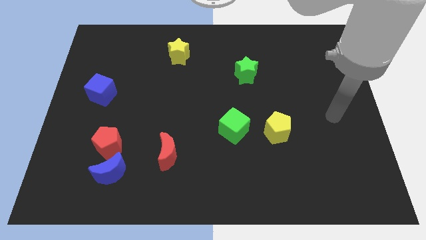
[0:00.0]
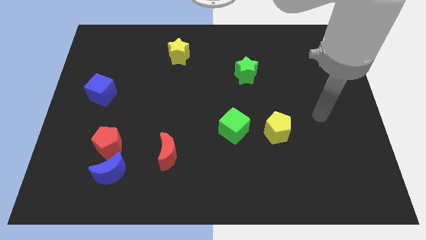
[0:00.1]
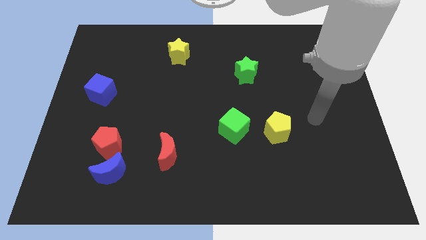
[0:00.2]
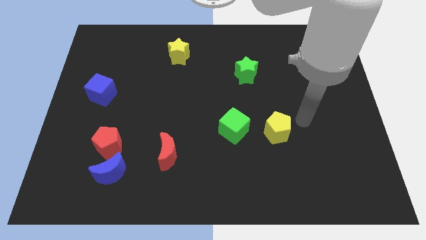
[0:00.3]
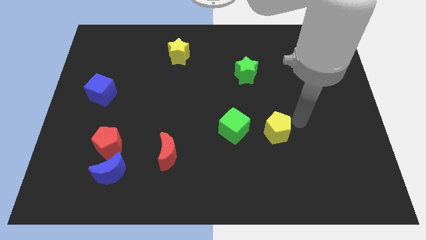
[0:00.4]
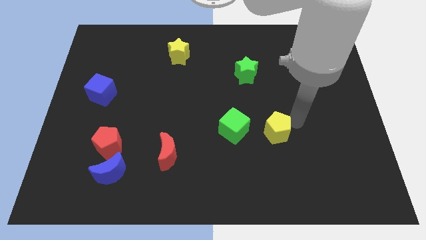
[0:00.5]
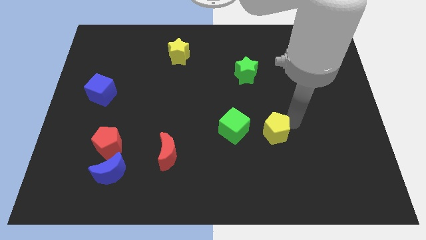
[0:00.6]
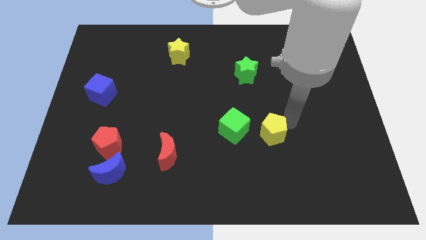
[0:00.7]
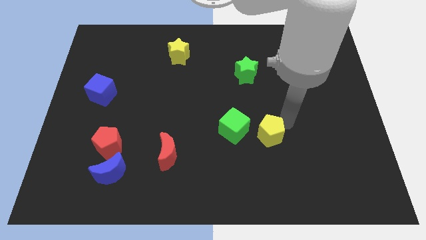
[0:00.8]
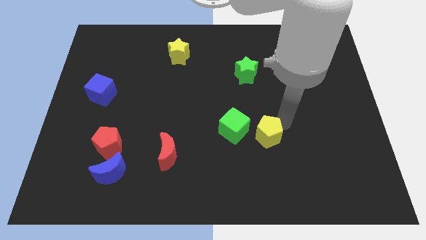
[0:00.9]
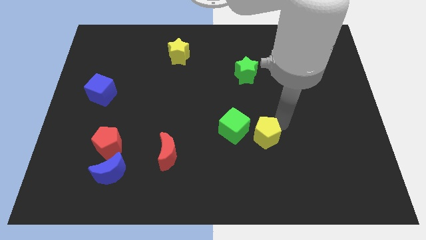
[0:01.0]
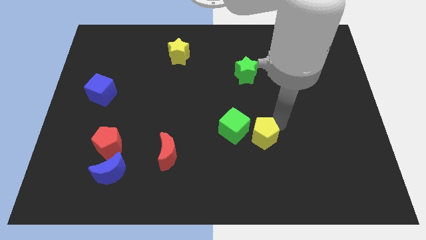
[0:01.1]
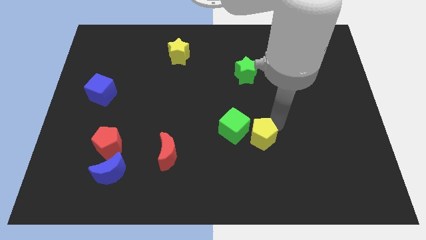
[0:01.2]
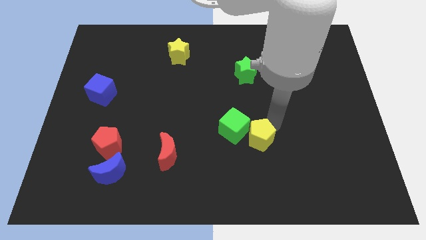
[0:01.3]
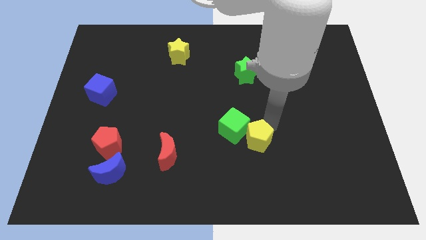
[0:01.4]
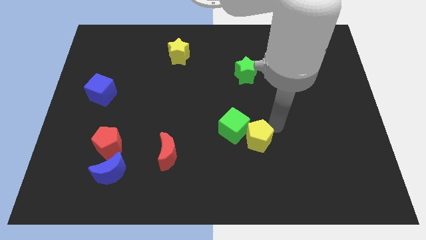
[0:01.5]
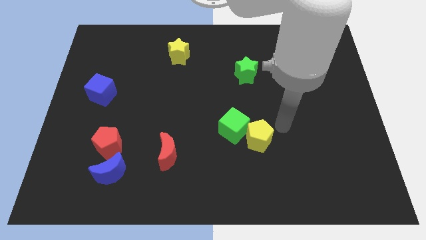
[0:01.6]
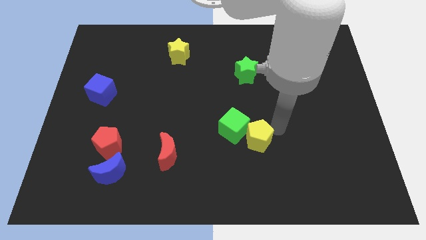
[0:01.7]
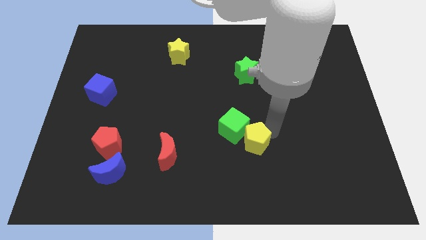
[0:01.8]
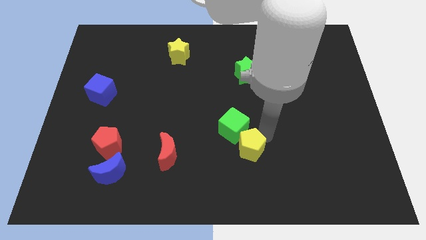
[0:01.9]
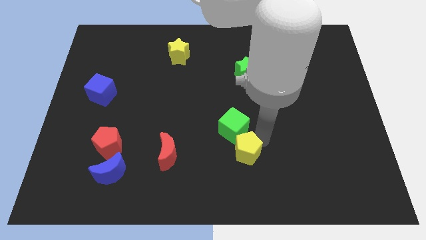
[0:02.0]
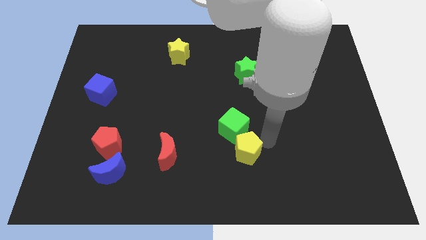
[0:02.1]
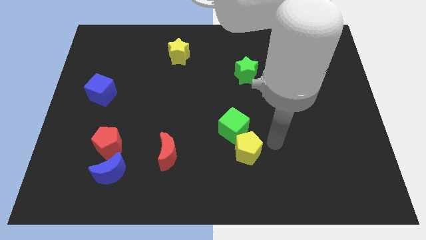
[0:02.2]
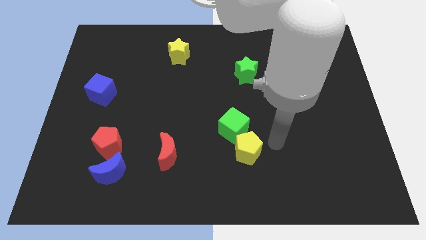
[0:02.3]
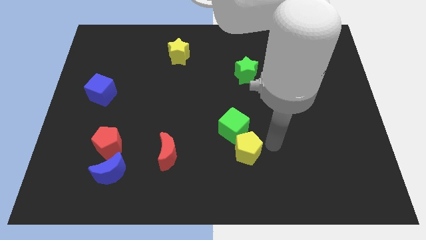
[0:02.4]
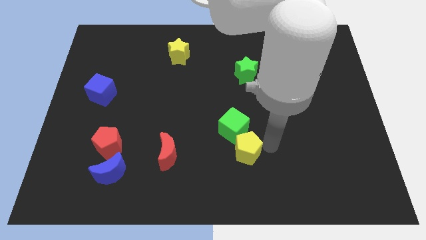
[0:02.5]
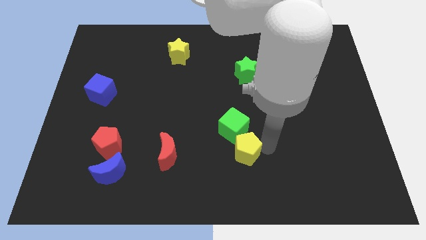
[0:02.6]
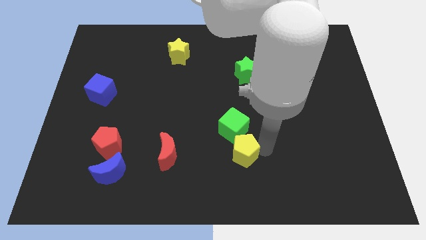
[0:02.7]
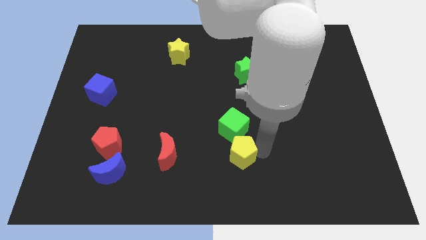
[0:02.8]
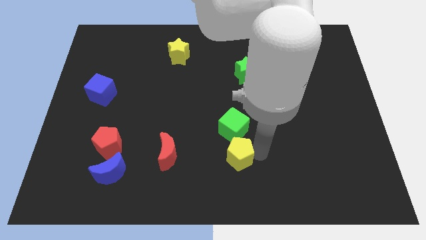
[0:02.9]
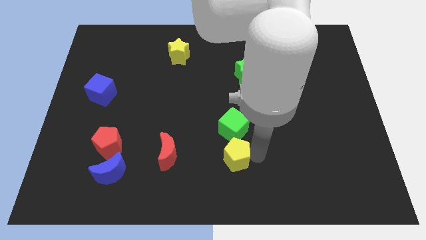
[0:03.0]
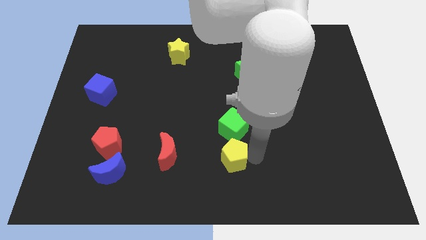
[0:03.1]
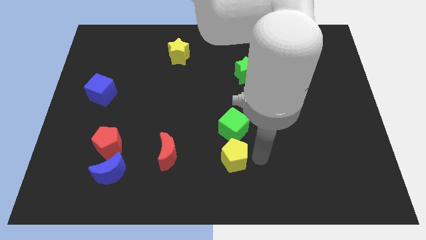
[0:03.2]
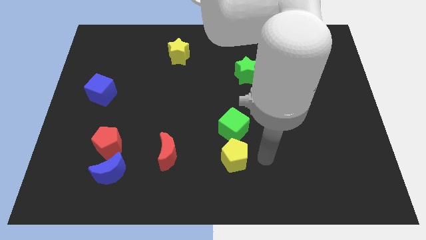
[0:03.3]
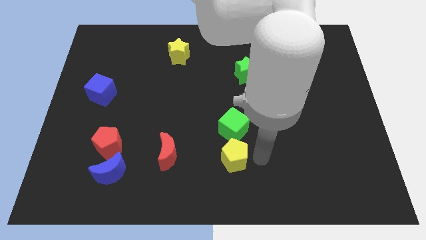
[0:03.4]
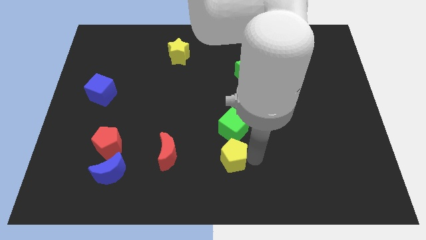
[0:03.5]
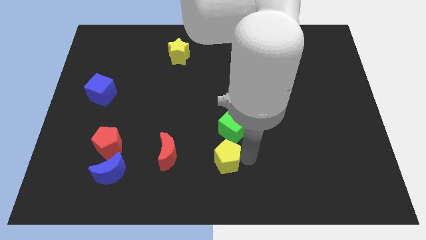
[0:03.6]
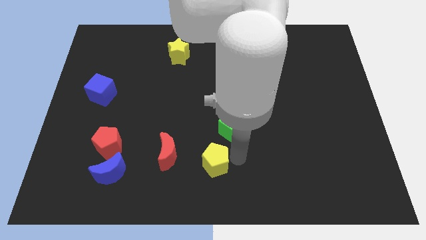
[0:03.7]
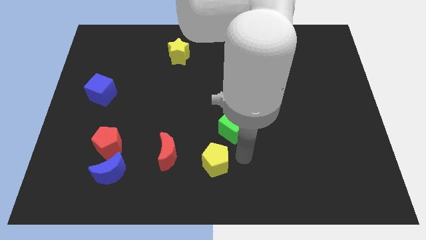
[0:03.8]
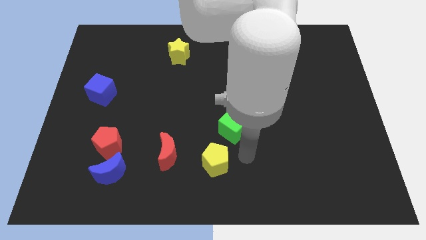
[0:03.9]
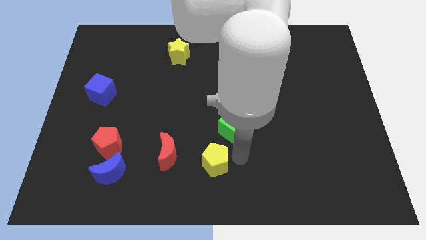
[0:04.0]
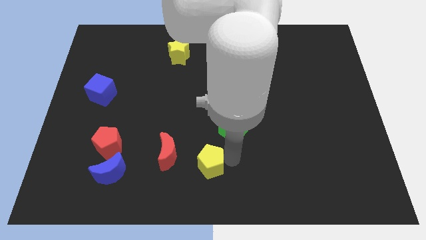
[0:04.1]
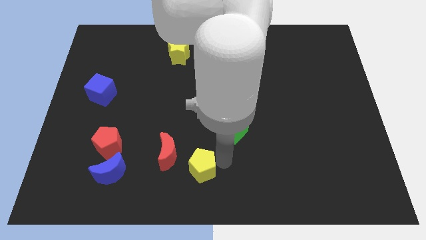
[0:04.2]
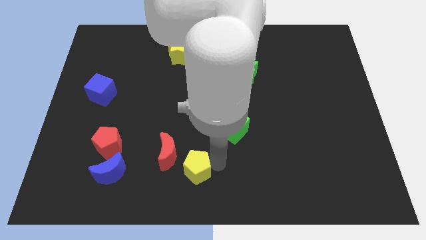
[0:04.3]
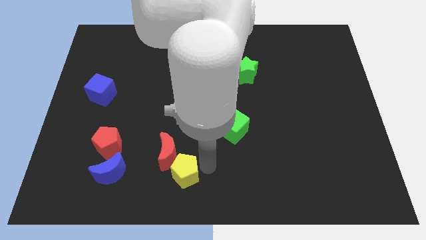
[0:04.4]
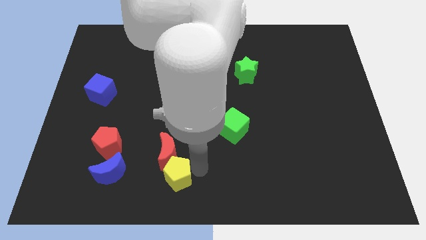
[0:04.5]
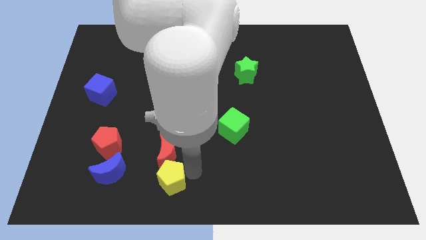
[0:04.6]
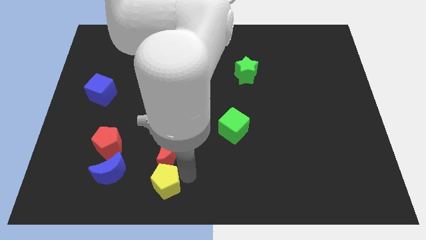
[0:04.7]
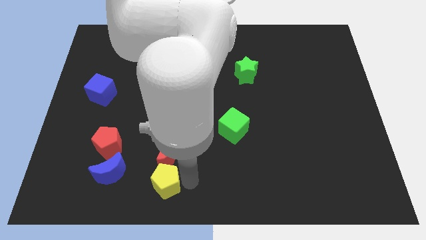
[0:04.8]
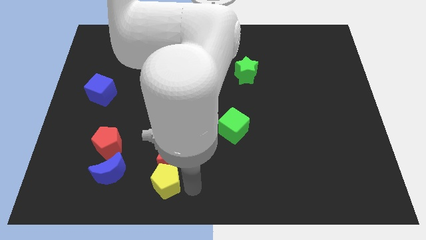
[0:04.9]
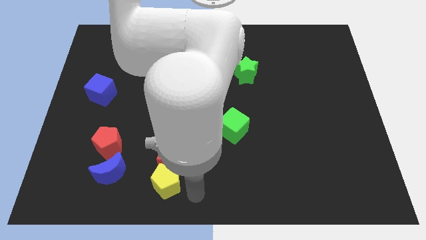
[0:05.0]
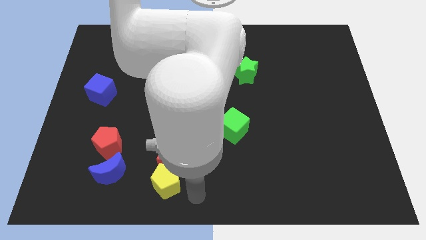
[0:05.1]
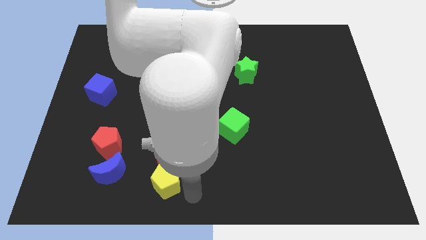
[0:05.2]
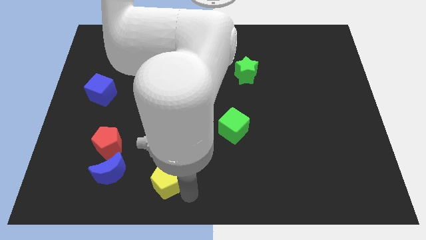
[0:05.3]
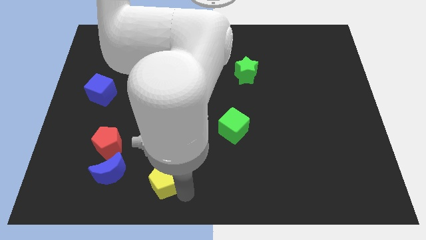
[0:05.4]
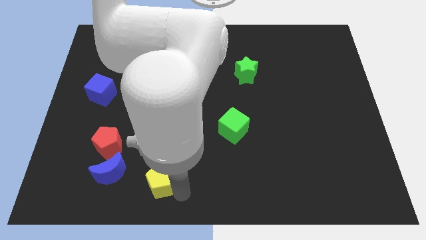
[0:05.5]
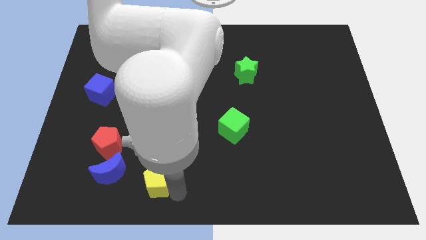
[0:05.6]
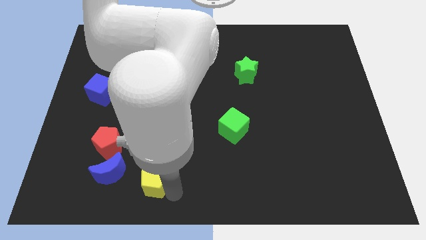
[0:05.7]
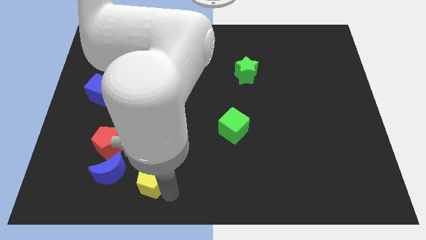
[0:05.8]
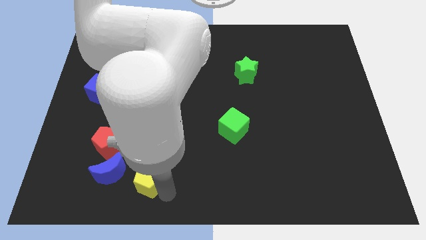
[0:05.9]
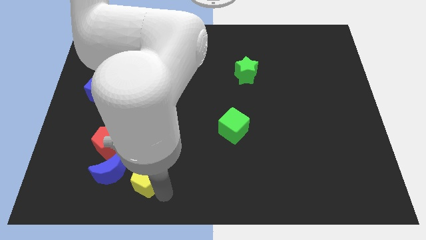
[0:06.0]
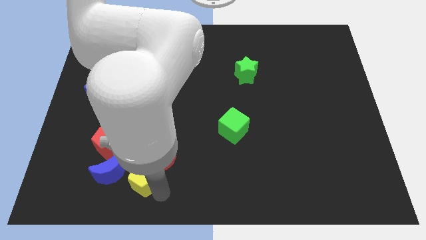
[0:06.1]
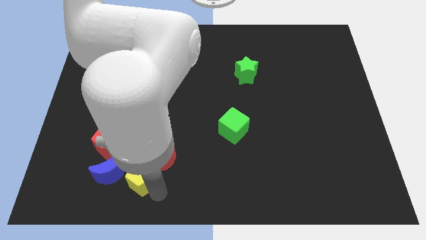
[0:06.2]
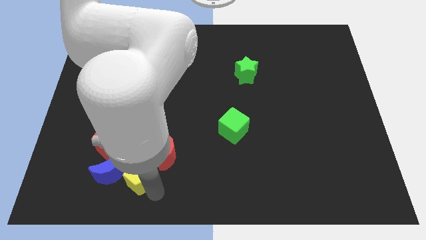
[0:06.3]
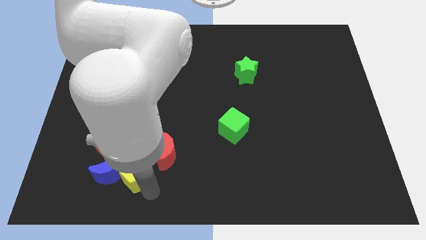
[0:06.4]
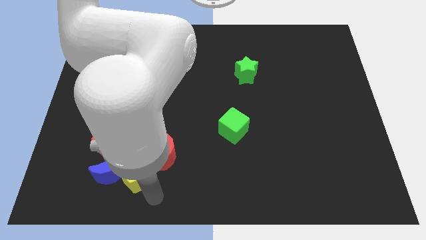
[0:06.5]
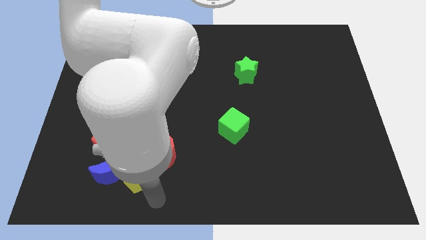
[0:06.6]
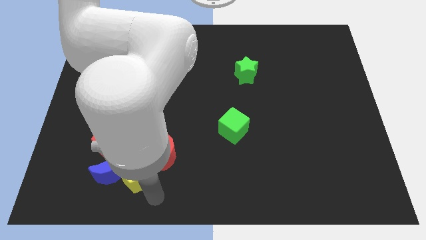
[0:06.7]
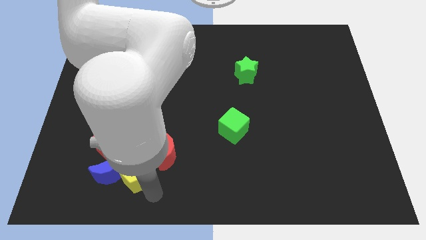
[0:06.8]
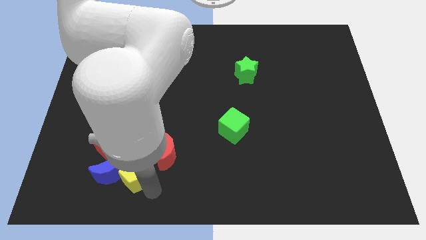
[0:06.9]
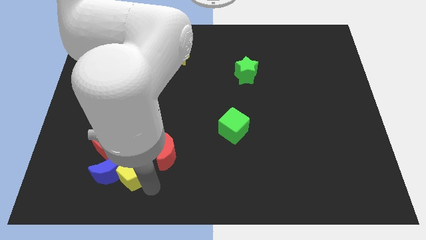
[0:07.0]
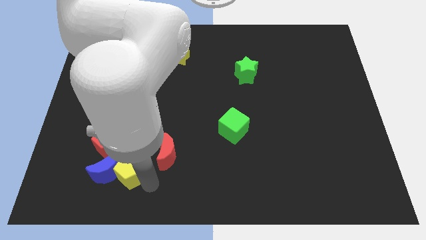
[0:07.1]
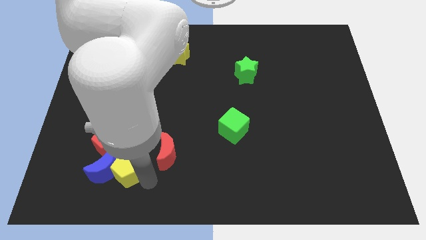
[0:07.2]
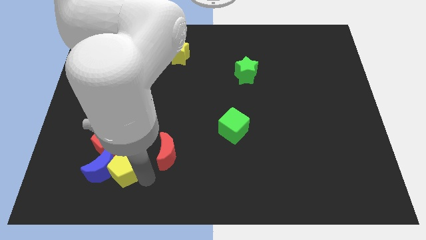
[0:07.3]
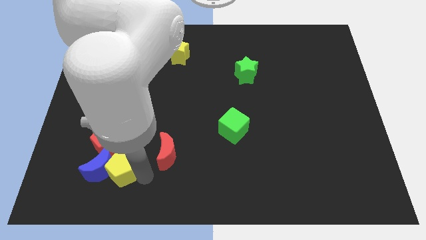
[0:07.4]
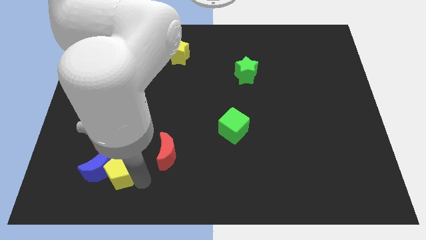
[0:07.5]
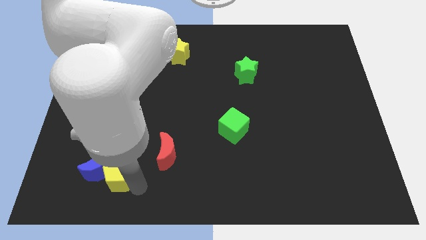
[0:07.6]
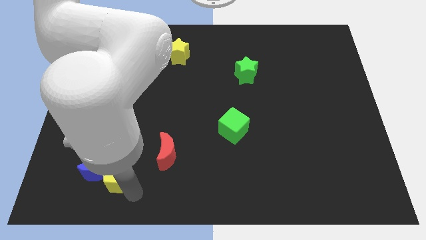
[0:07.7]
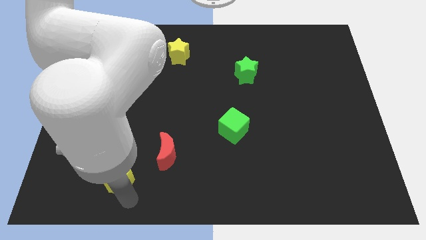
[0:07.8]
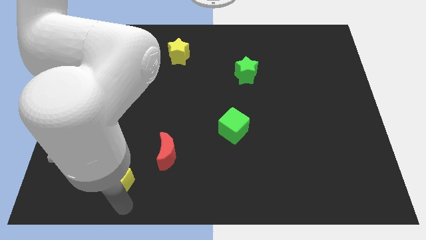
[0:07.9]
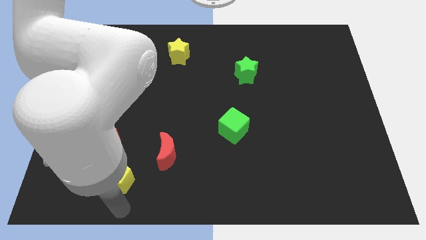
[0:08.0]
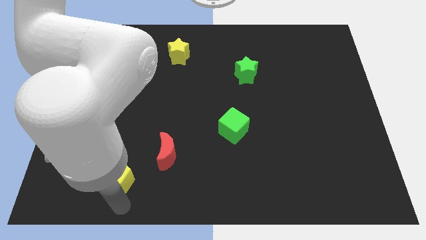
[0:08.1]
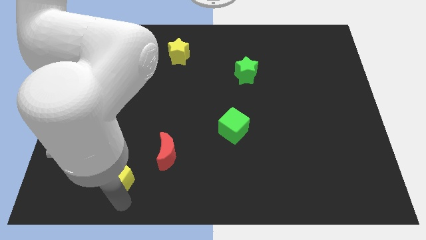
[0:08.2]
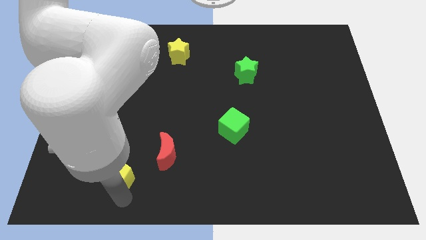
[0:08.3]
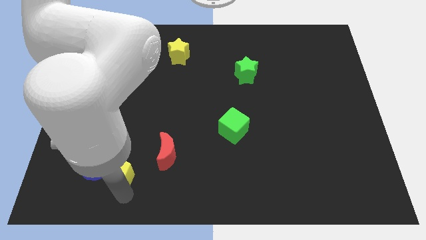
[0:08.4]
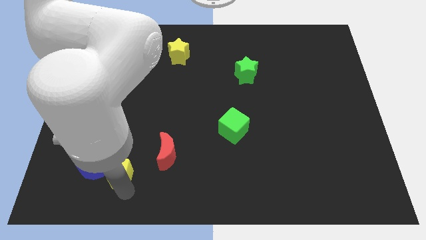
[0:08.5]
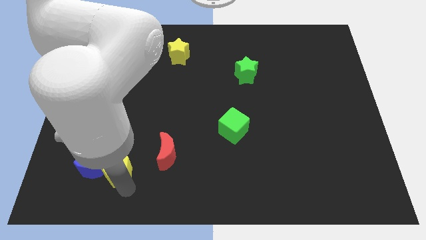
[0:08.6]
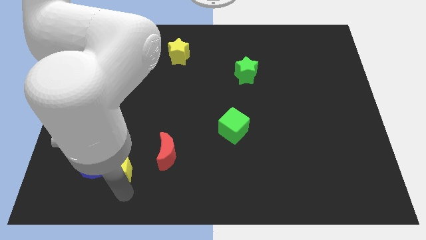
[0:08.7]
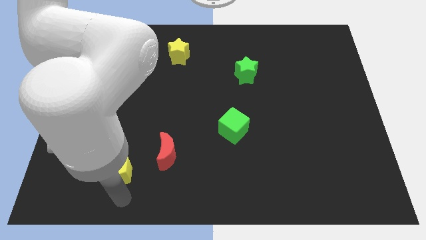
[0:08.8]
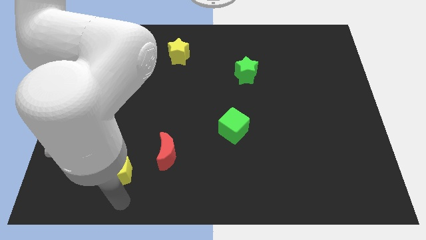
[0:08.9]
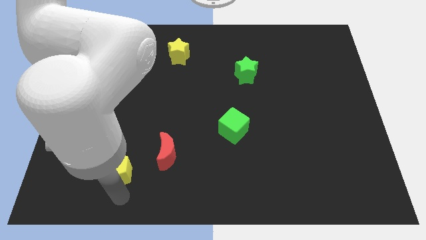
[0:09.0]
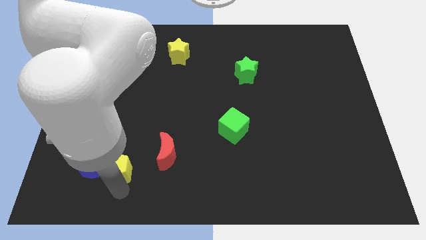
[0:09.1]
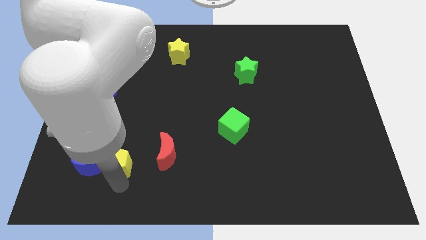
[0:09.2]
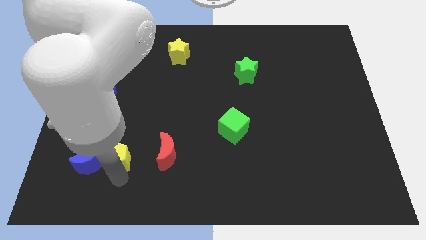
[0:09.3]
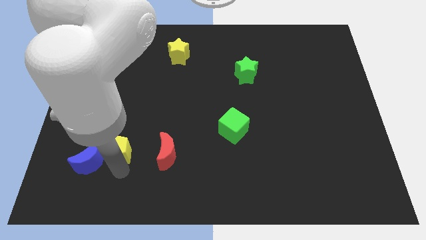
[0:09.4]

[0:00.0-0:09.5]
push the yellow pentagon next to the red pentagon
